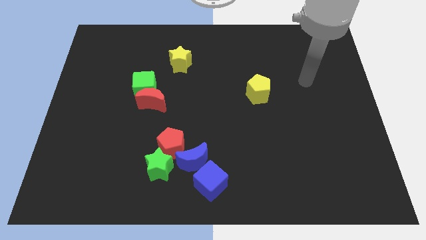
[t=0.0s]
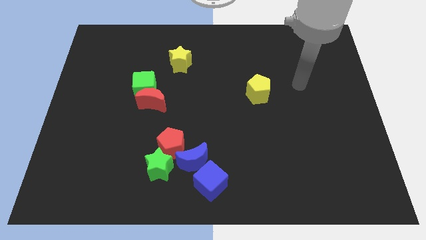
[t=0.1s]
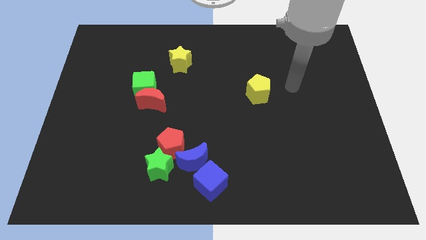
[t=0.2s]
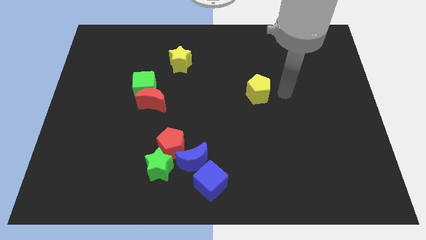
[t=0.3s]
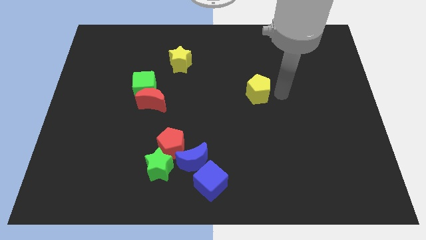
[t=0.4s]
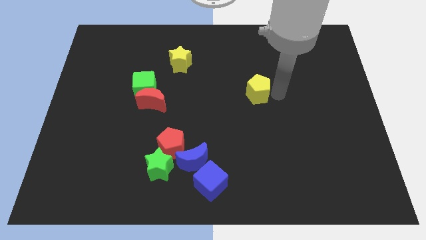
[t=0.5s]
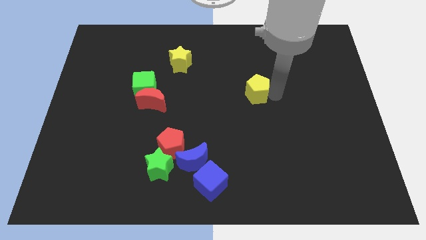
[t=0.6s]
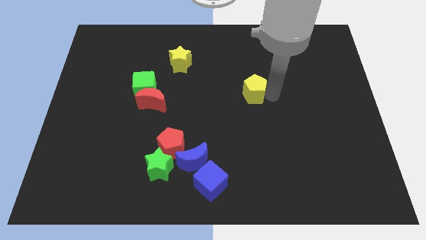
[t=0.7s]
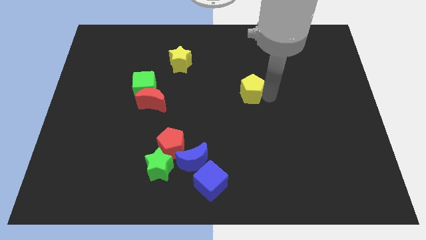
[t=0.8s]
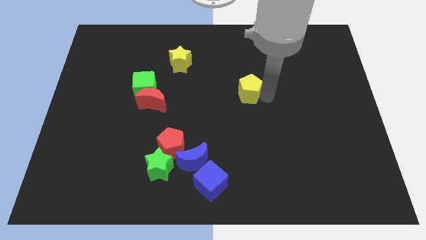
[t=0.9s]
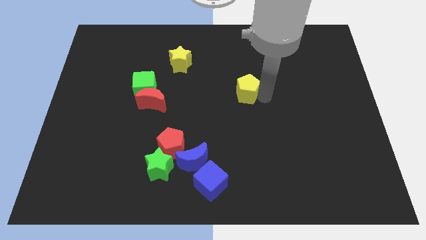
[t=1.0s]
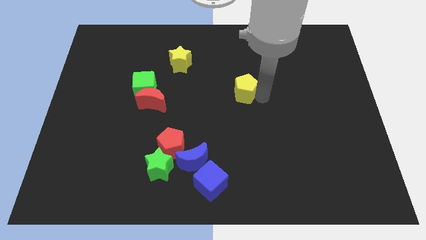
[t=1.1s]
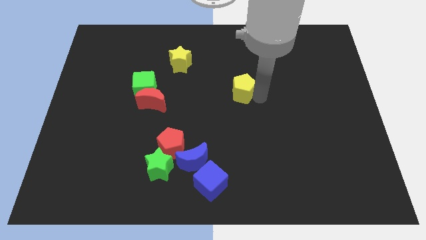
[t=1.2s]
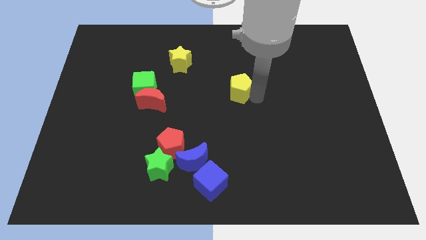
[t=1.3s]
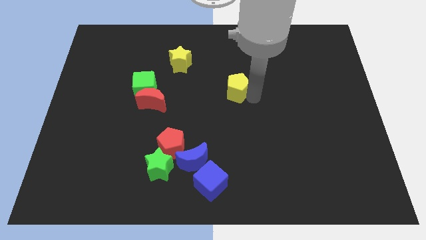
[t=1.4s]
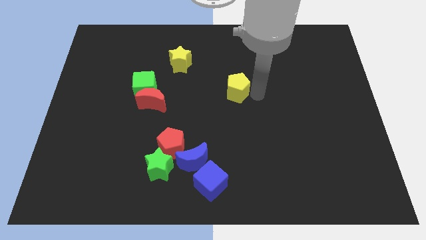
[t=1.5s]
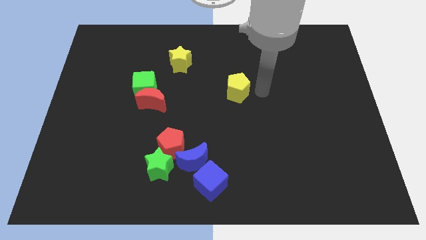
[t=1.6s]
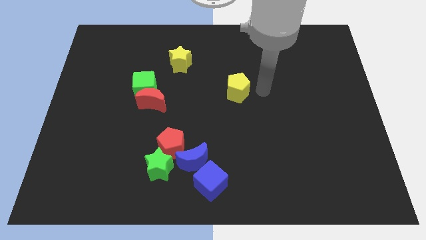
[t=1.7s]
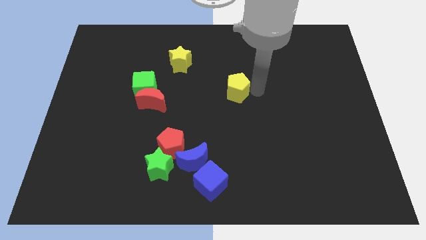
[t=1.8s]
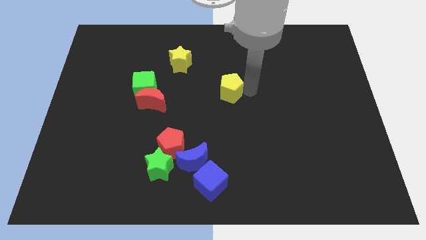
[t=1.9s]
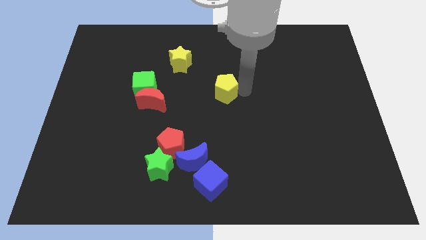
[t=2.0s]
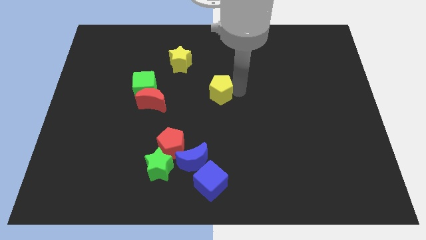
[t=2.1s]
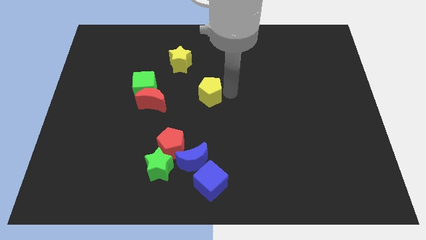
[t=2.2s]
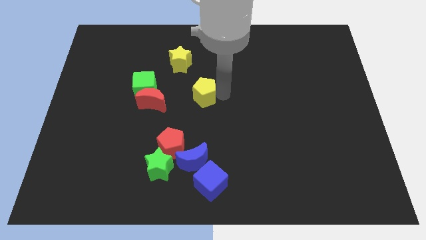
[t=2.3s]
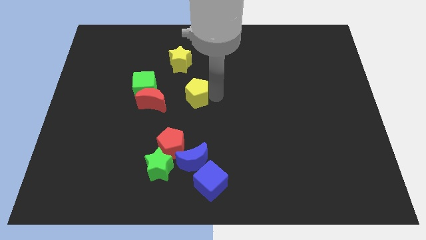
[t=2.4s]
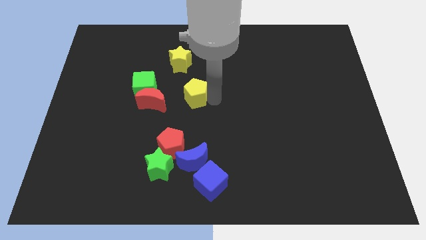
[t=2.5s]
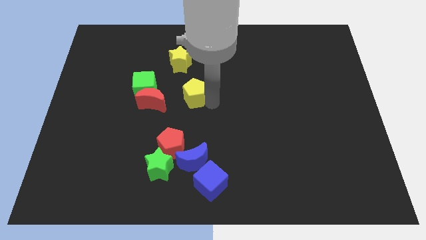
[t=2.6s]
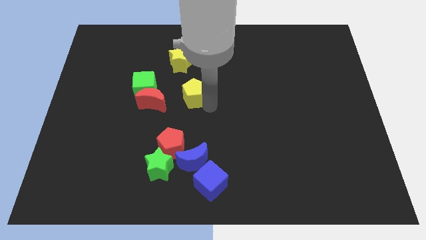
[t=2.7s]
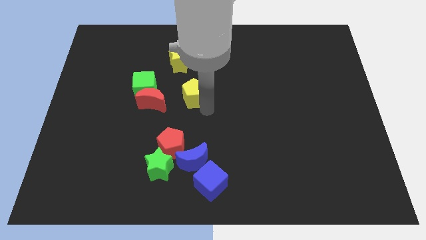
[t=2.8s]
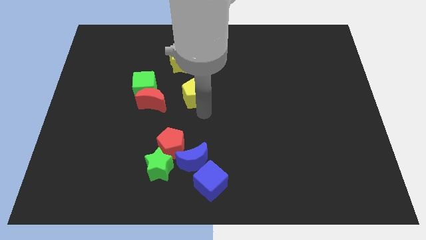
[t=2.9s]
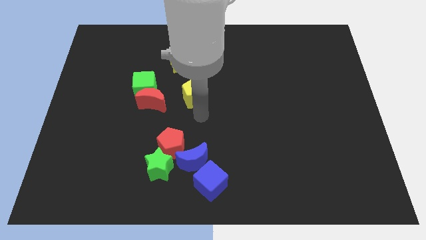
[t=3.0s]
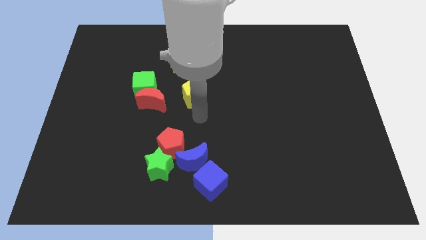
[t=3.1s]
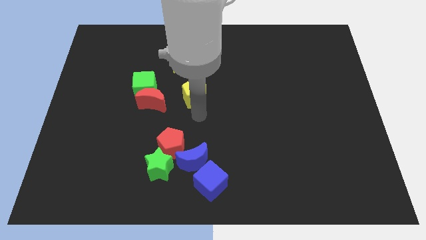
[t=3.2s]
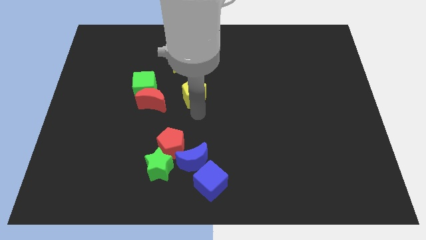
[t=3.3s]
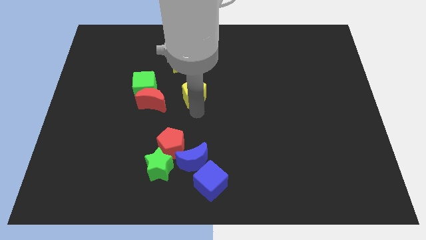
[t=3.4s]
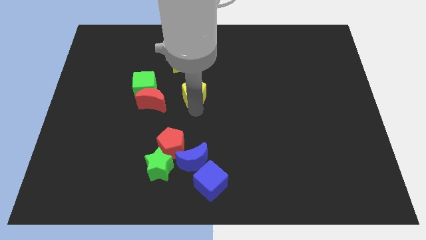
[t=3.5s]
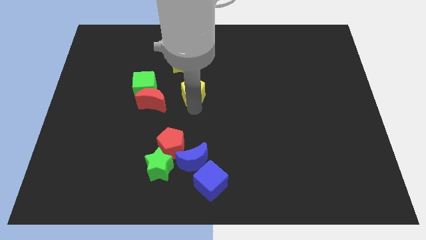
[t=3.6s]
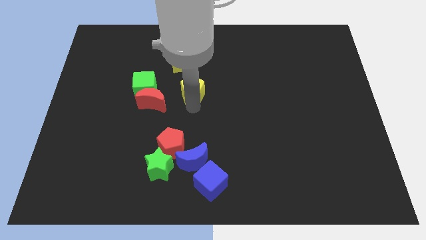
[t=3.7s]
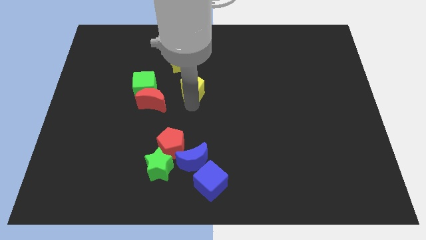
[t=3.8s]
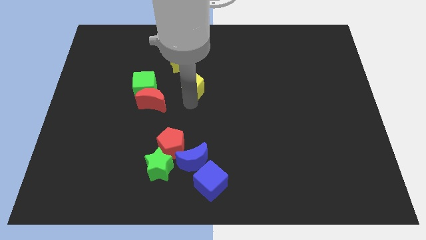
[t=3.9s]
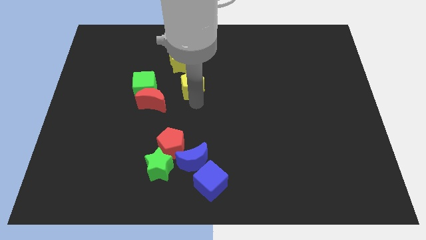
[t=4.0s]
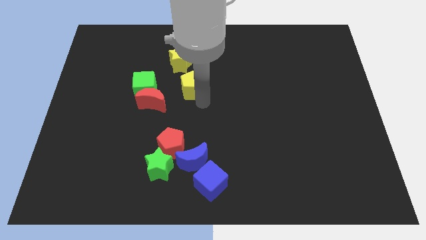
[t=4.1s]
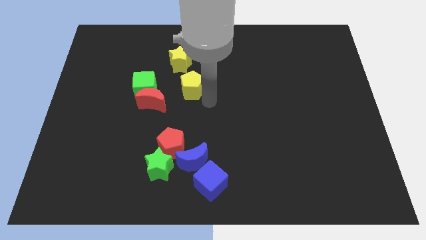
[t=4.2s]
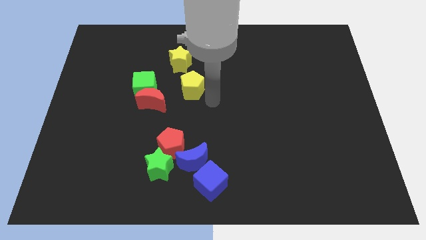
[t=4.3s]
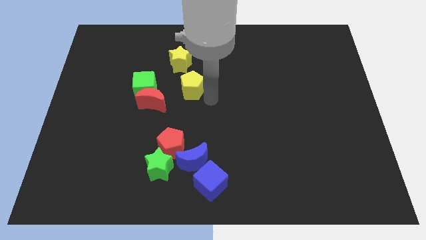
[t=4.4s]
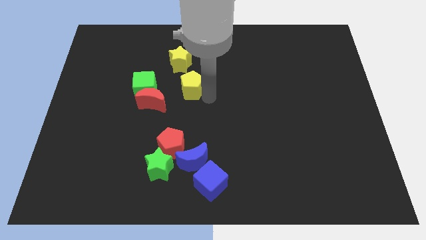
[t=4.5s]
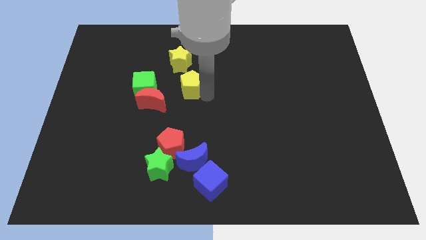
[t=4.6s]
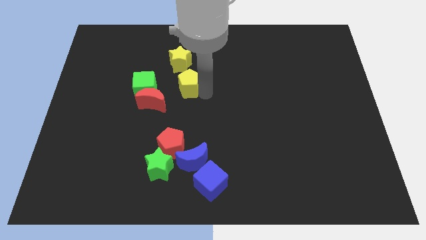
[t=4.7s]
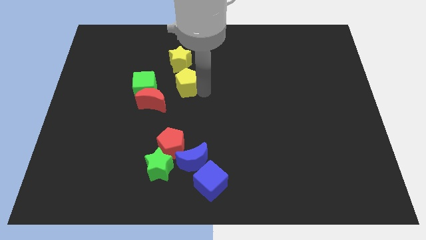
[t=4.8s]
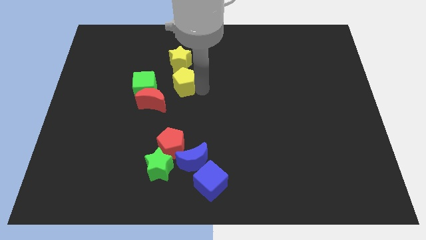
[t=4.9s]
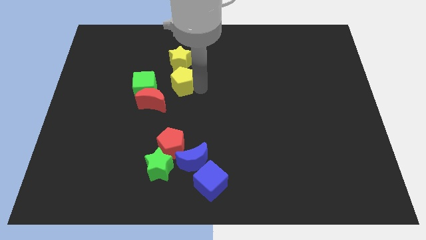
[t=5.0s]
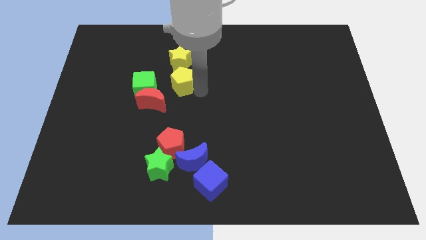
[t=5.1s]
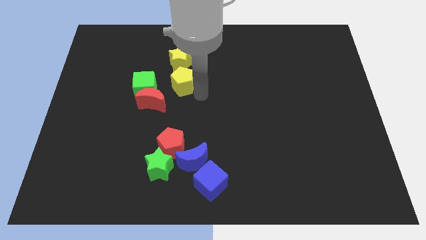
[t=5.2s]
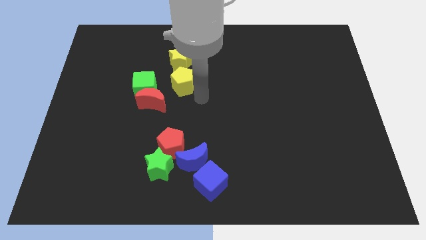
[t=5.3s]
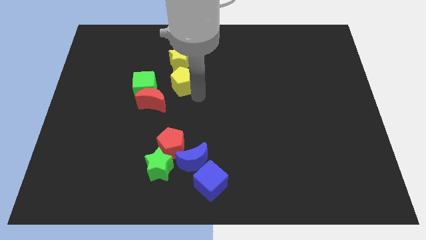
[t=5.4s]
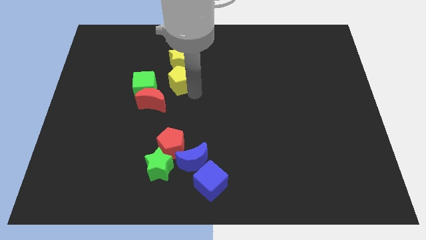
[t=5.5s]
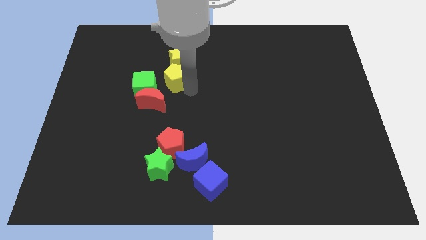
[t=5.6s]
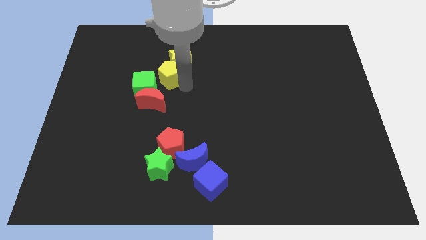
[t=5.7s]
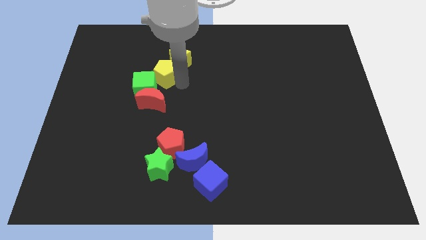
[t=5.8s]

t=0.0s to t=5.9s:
push the yellow pentagon next to the green cube
